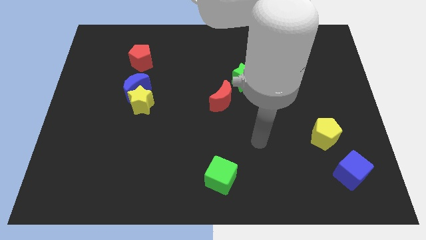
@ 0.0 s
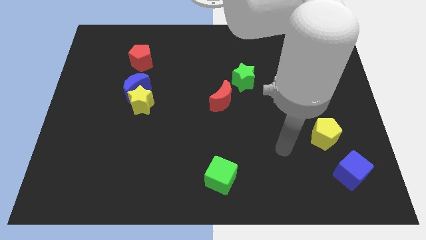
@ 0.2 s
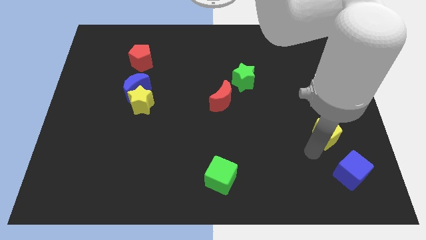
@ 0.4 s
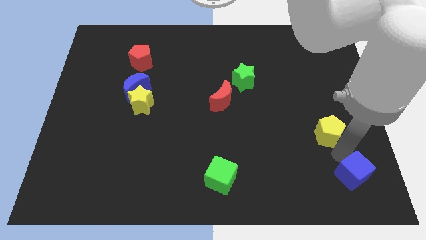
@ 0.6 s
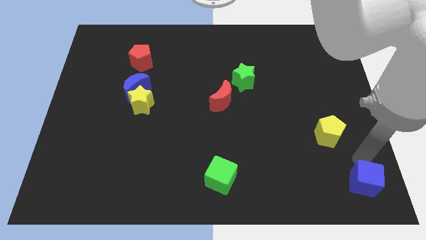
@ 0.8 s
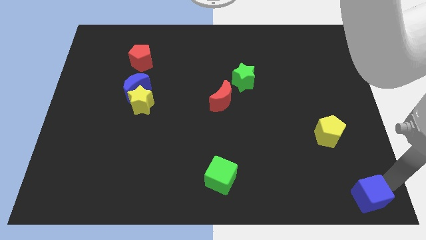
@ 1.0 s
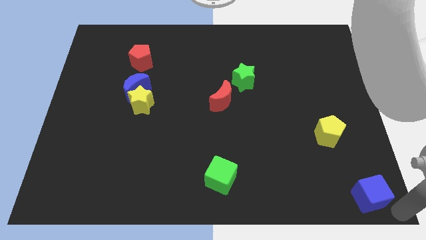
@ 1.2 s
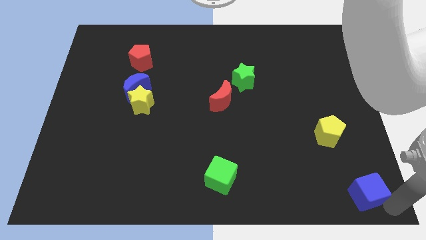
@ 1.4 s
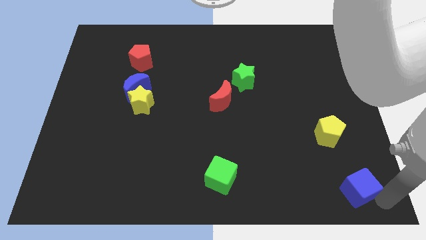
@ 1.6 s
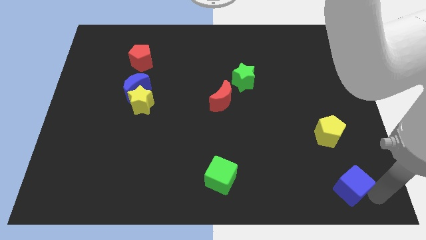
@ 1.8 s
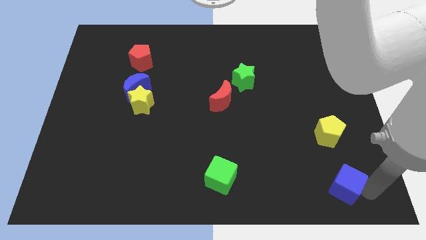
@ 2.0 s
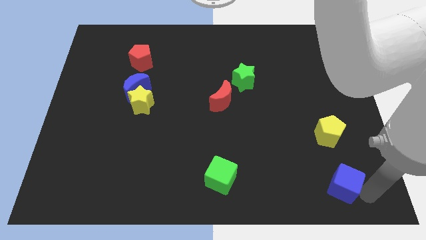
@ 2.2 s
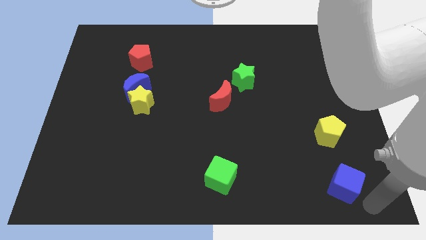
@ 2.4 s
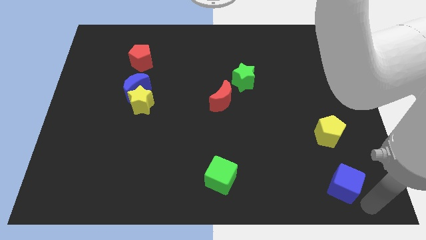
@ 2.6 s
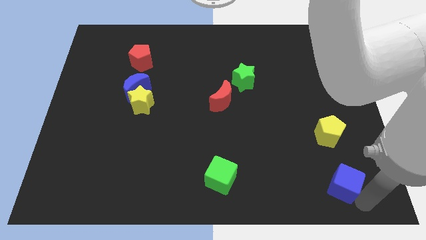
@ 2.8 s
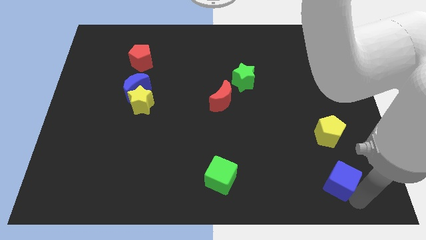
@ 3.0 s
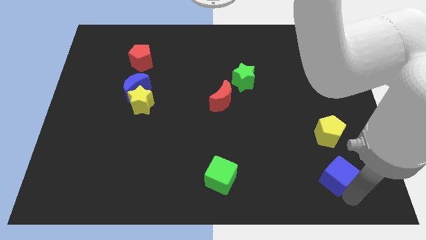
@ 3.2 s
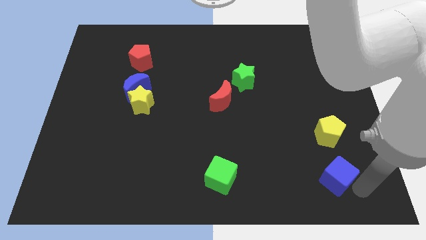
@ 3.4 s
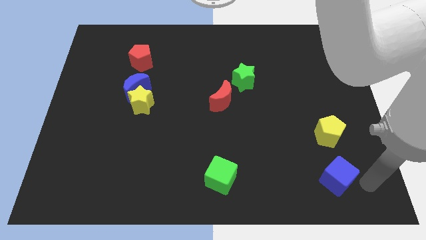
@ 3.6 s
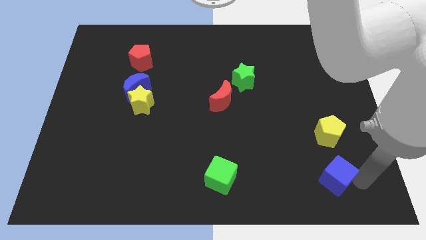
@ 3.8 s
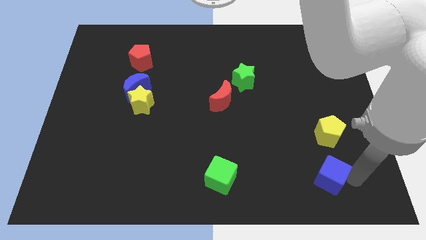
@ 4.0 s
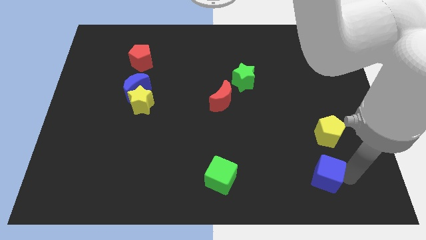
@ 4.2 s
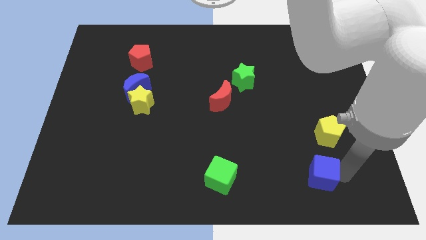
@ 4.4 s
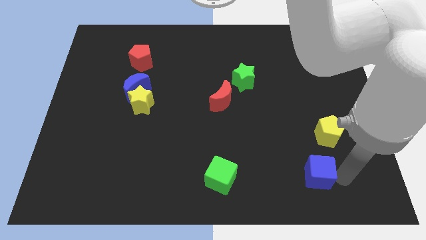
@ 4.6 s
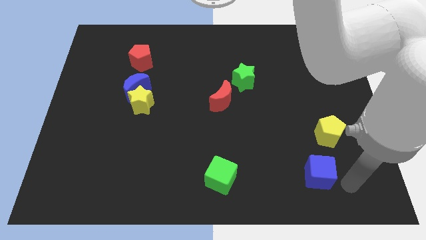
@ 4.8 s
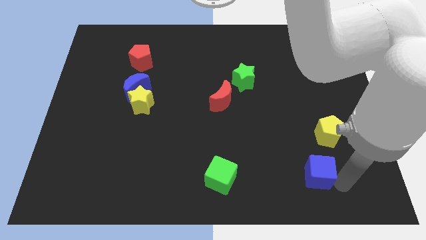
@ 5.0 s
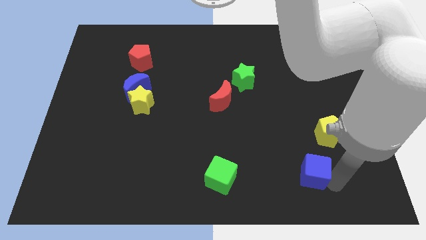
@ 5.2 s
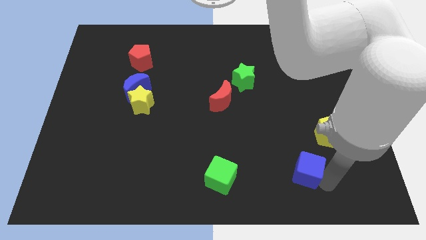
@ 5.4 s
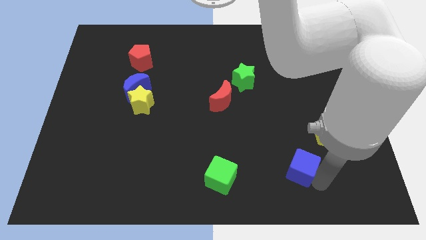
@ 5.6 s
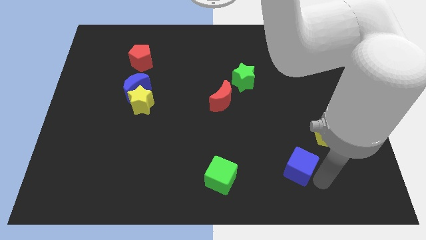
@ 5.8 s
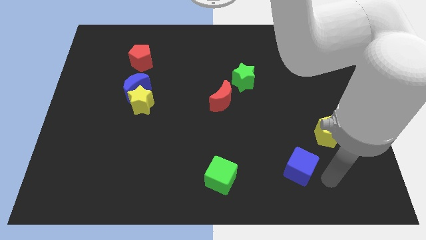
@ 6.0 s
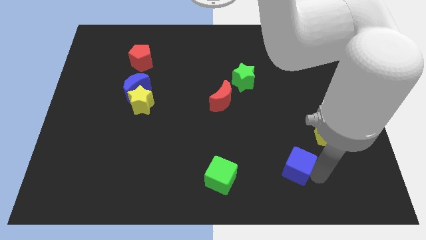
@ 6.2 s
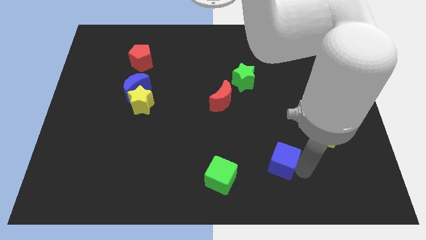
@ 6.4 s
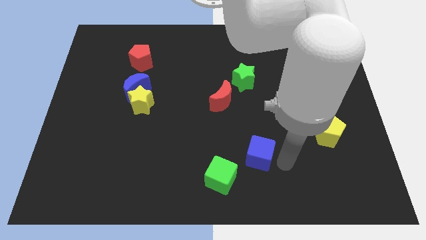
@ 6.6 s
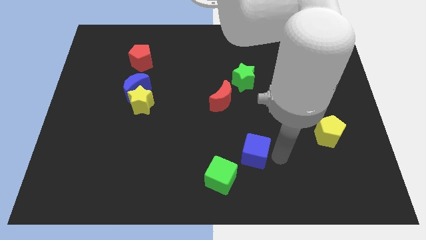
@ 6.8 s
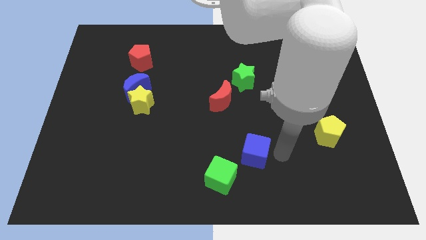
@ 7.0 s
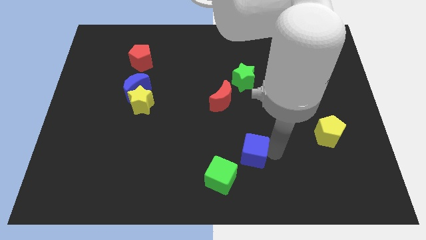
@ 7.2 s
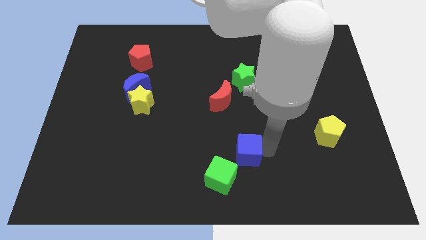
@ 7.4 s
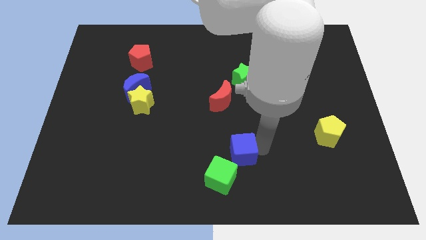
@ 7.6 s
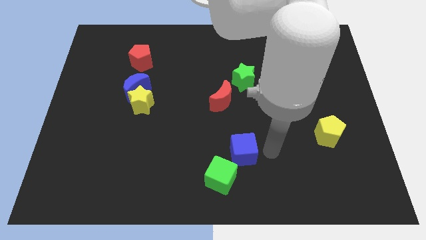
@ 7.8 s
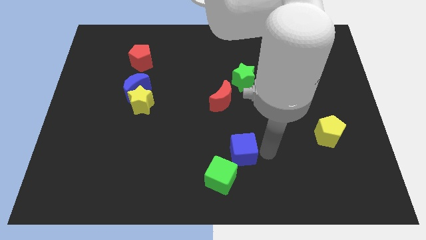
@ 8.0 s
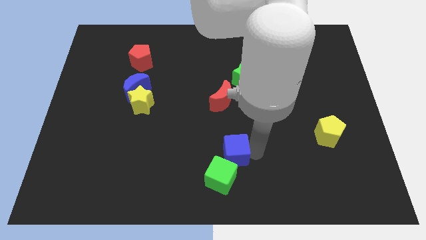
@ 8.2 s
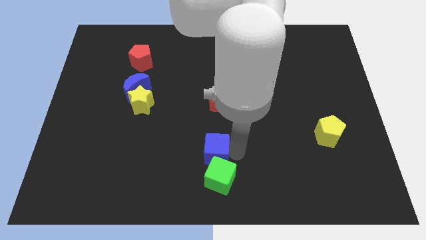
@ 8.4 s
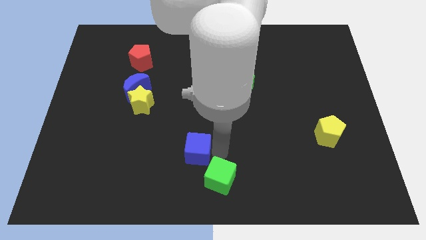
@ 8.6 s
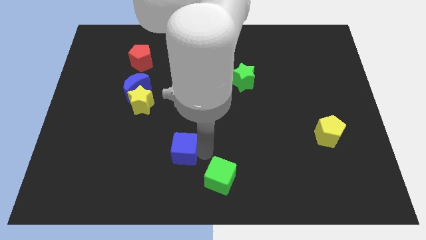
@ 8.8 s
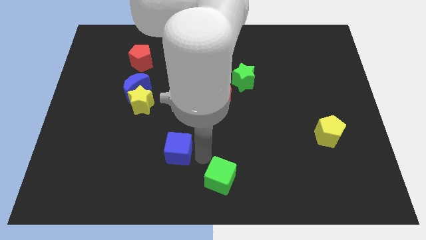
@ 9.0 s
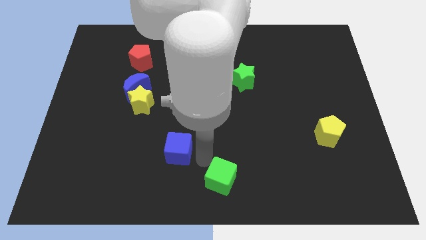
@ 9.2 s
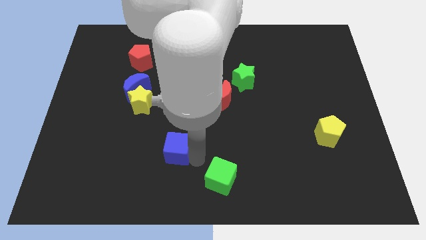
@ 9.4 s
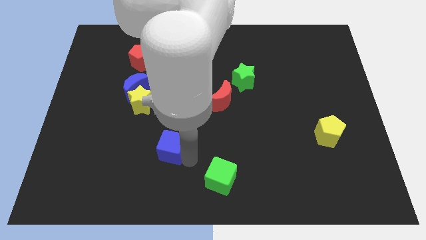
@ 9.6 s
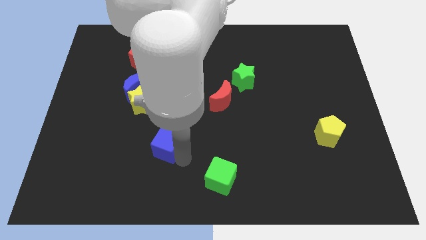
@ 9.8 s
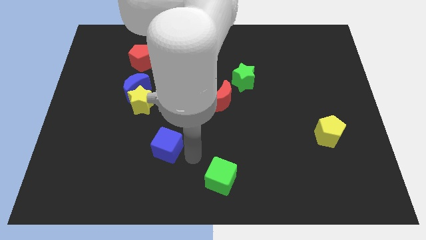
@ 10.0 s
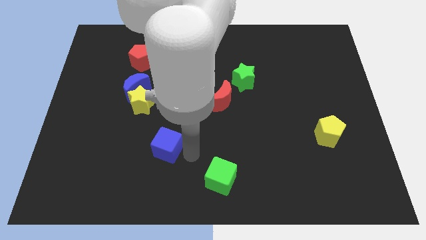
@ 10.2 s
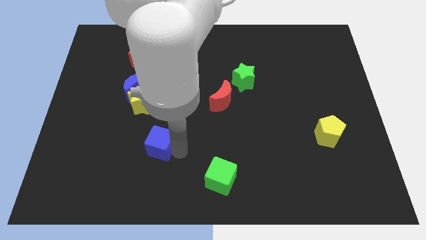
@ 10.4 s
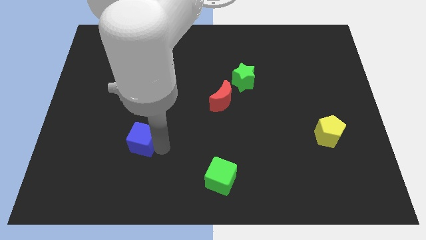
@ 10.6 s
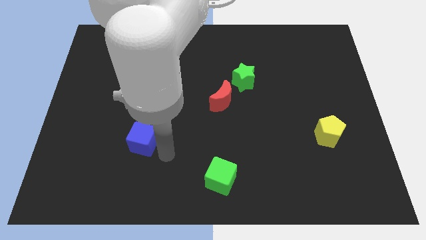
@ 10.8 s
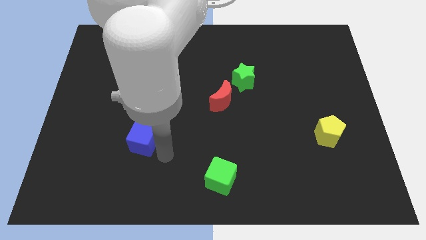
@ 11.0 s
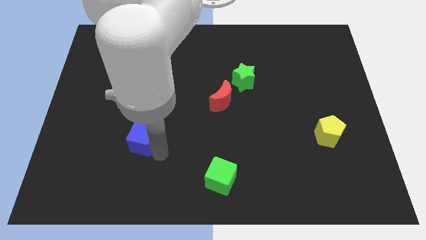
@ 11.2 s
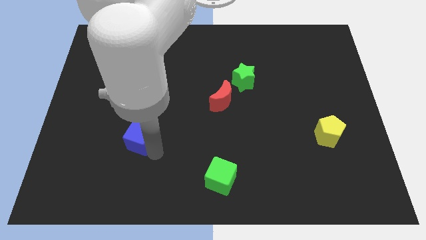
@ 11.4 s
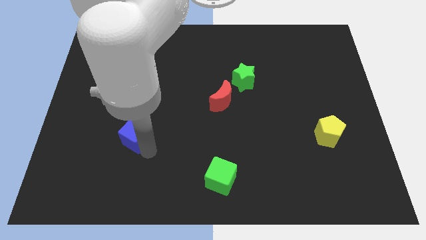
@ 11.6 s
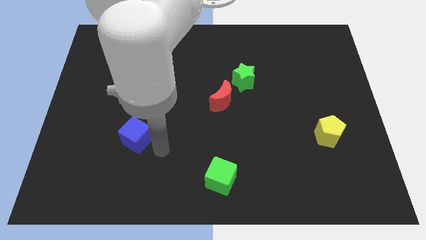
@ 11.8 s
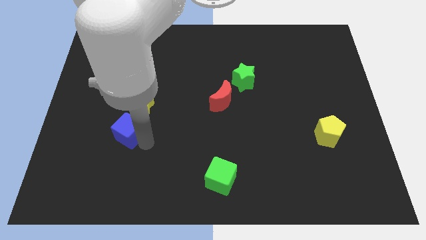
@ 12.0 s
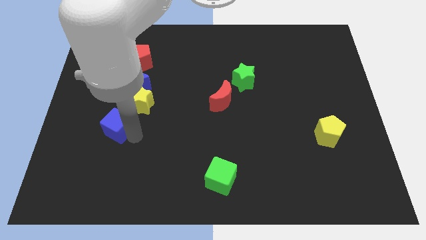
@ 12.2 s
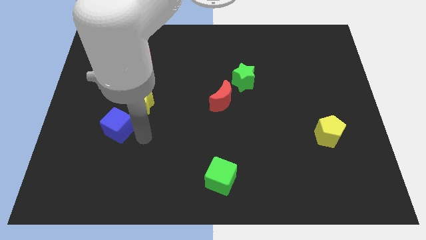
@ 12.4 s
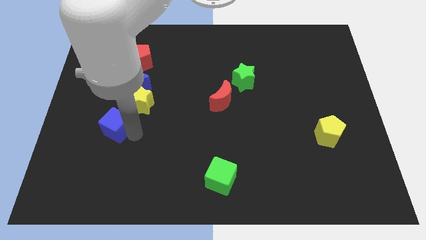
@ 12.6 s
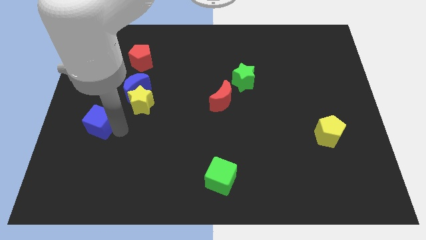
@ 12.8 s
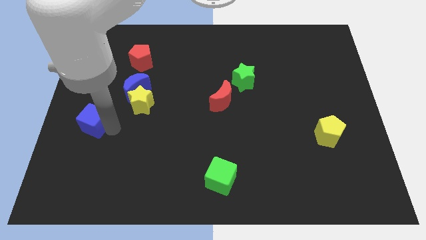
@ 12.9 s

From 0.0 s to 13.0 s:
slide the blue cube to the left side of the board
